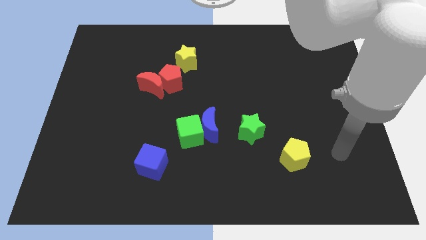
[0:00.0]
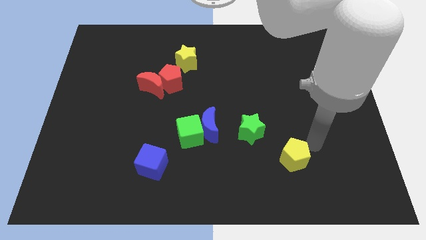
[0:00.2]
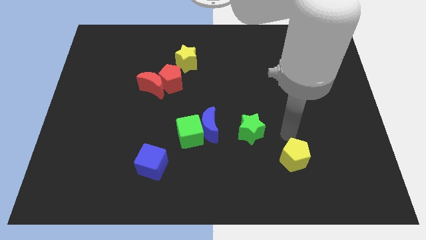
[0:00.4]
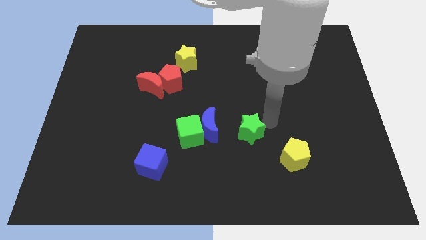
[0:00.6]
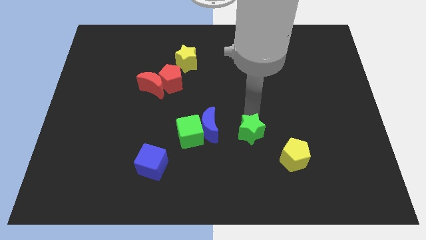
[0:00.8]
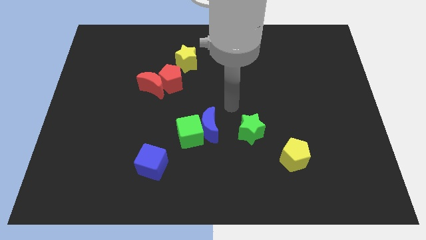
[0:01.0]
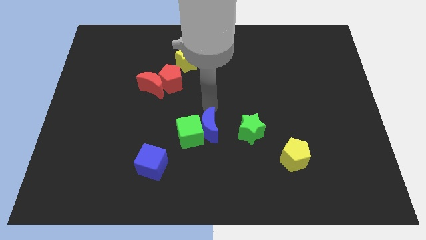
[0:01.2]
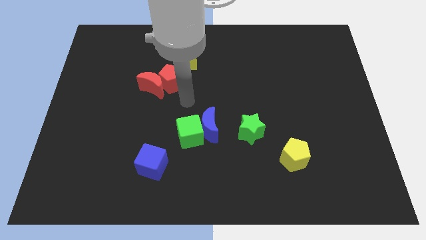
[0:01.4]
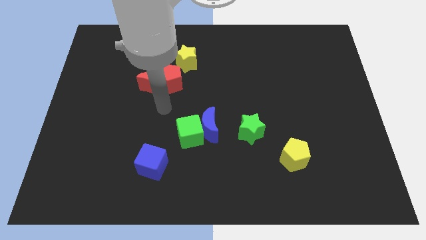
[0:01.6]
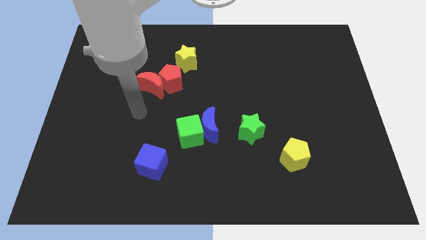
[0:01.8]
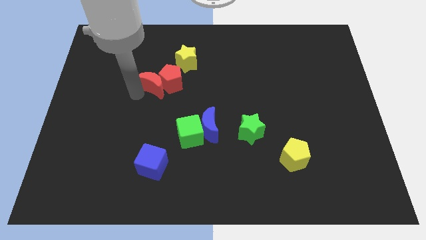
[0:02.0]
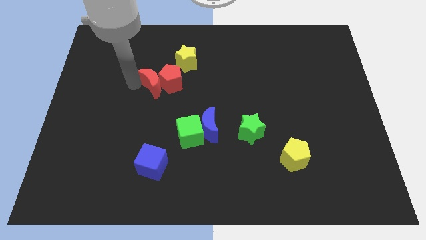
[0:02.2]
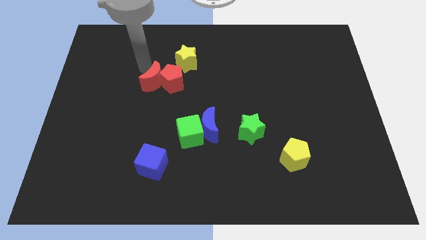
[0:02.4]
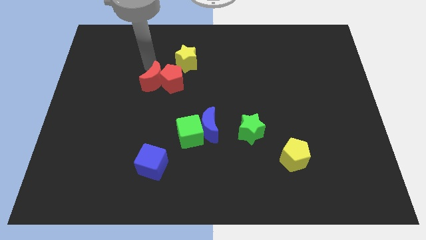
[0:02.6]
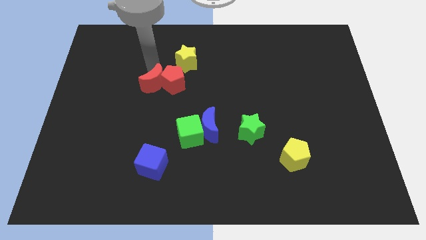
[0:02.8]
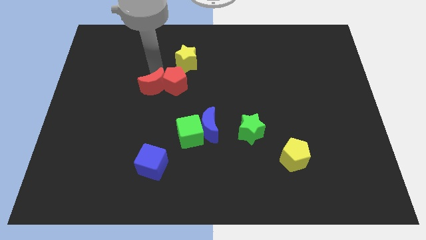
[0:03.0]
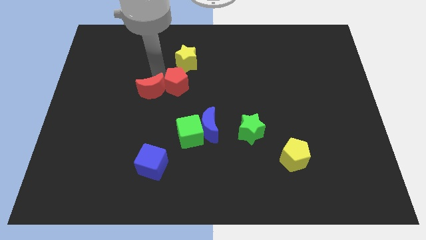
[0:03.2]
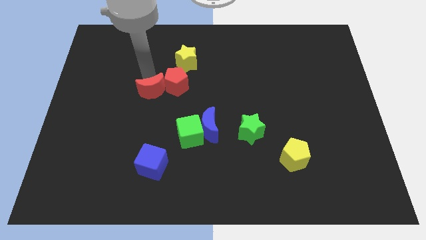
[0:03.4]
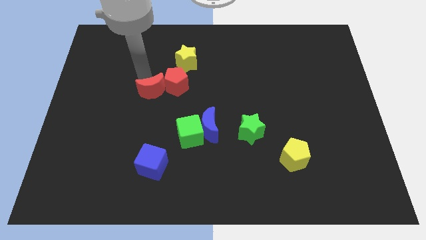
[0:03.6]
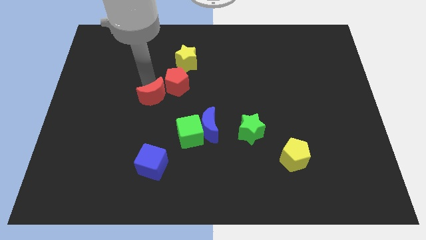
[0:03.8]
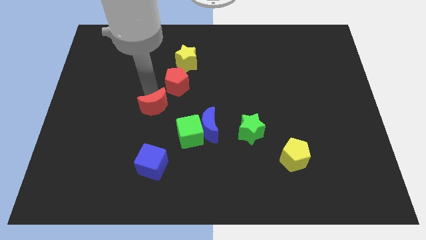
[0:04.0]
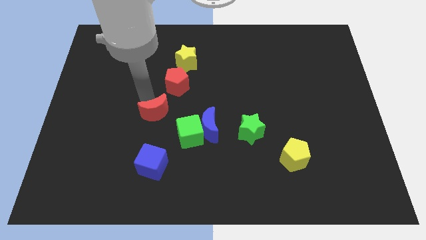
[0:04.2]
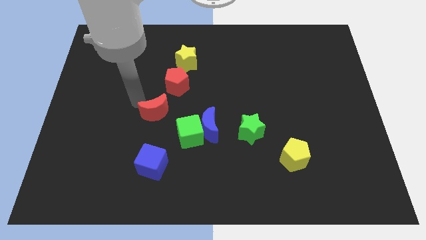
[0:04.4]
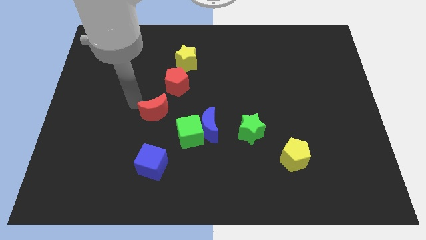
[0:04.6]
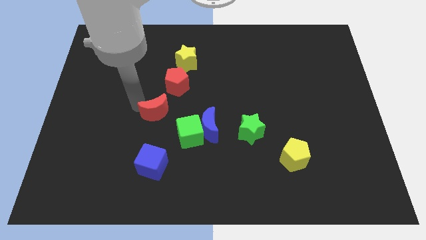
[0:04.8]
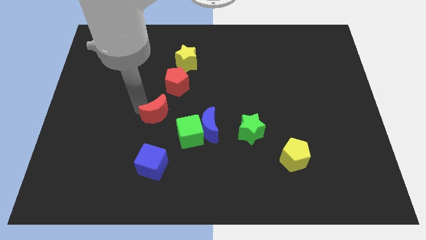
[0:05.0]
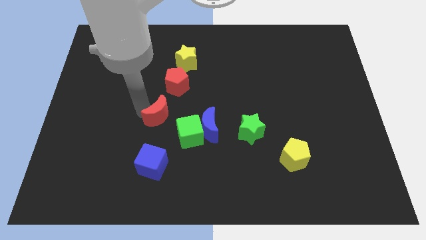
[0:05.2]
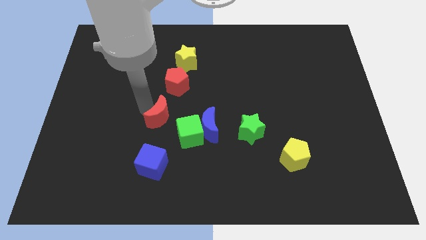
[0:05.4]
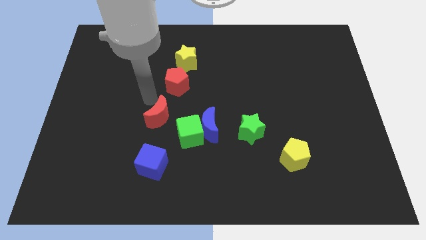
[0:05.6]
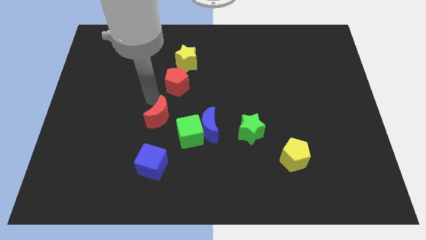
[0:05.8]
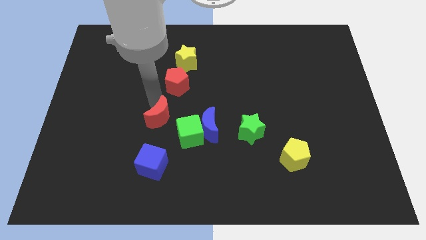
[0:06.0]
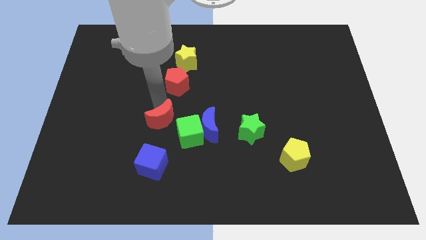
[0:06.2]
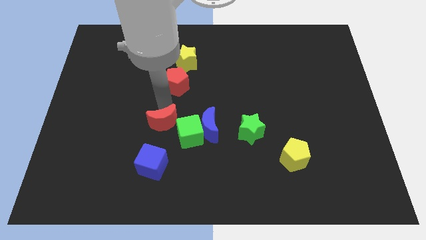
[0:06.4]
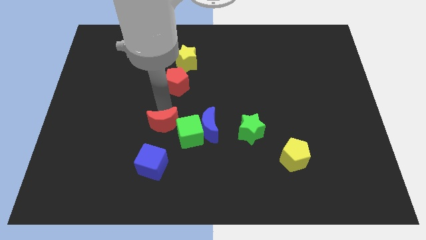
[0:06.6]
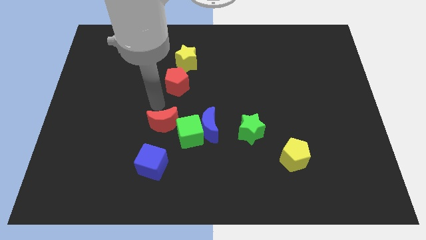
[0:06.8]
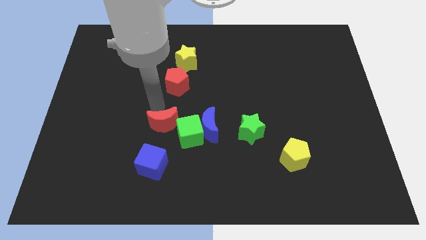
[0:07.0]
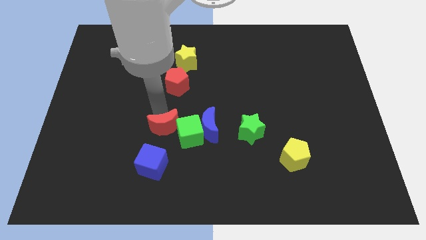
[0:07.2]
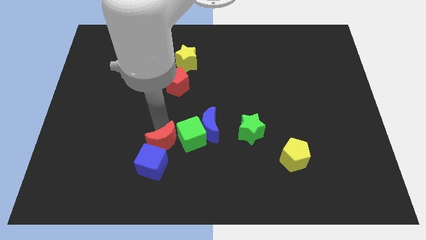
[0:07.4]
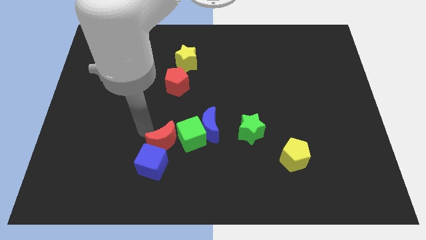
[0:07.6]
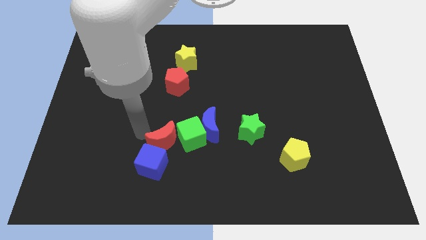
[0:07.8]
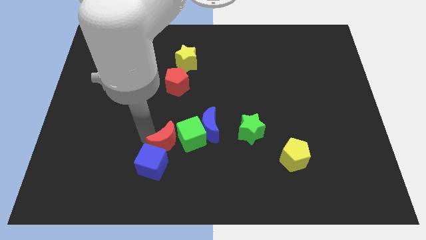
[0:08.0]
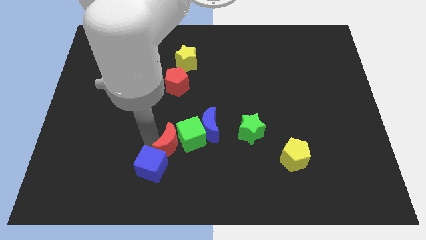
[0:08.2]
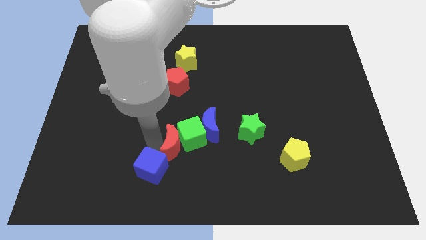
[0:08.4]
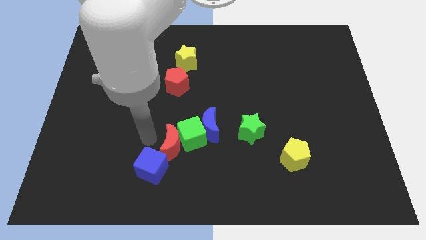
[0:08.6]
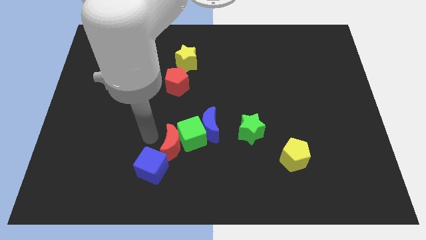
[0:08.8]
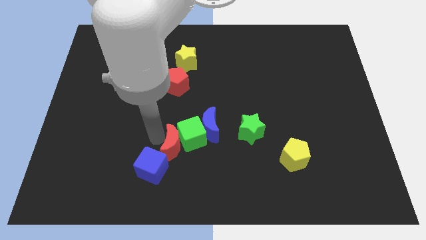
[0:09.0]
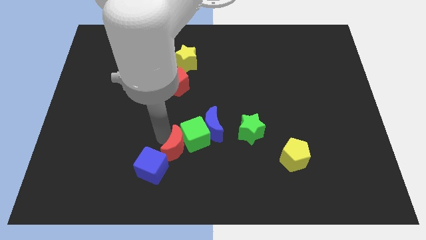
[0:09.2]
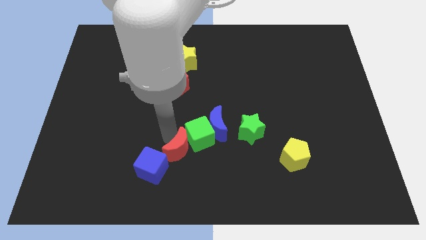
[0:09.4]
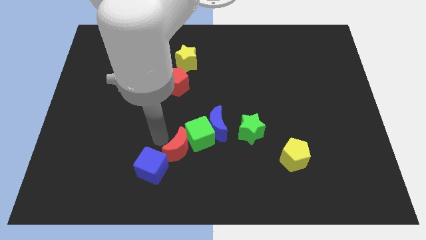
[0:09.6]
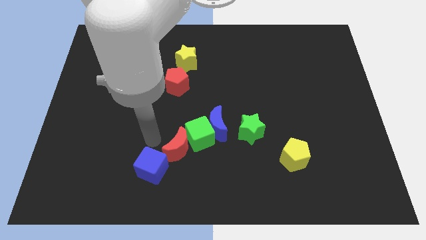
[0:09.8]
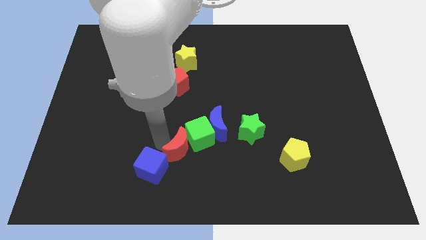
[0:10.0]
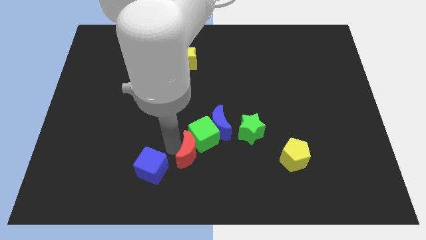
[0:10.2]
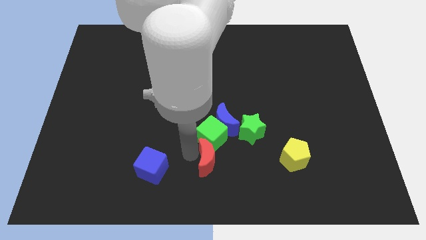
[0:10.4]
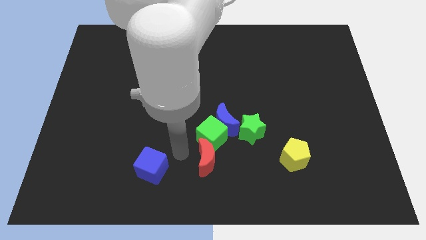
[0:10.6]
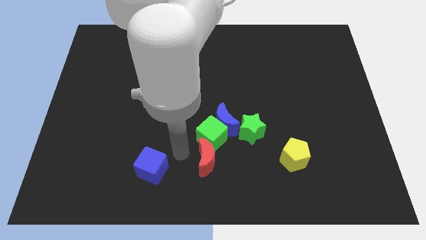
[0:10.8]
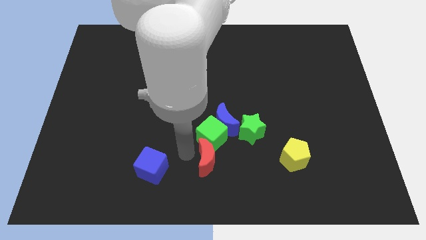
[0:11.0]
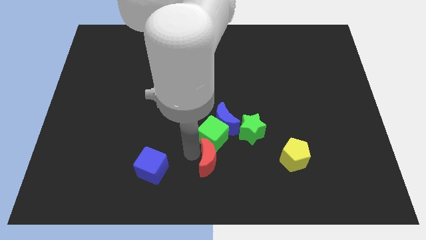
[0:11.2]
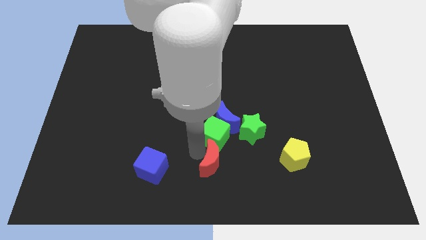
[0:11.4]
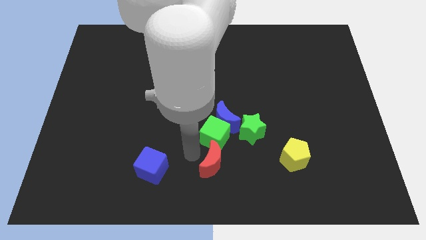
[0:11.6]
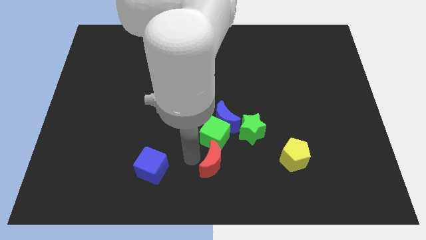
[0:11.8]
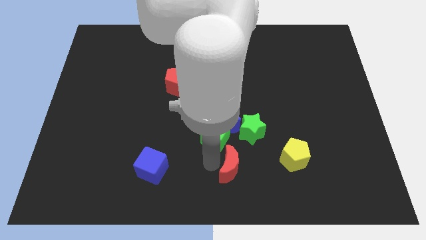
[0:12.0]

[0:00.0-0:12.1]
push the red moon to the bottom of the green star
